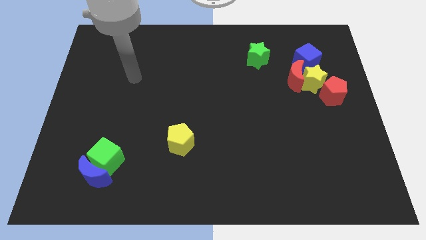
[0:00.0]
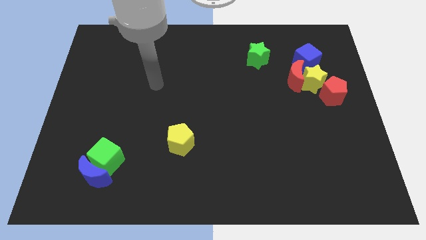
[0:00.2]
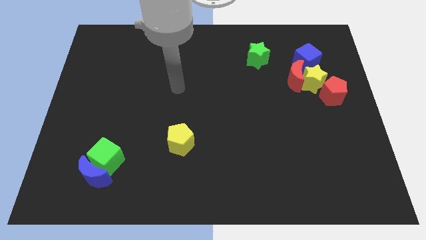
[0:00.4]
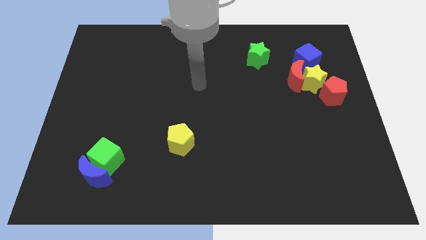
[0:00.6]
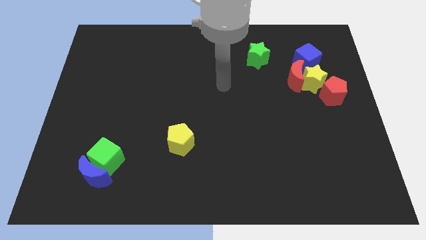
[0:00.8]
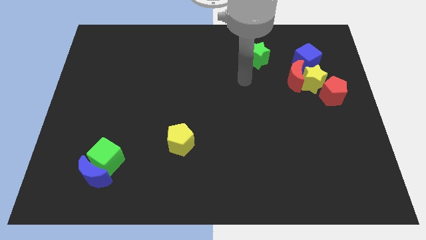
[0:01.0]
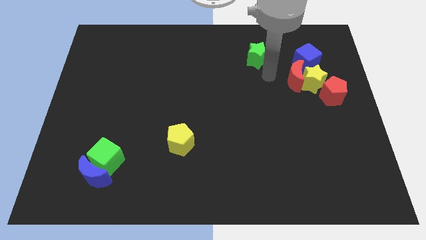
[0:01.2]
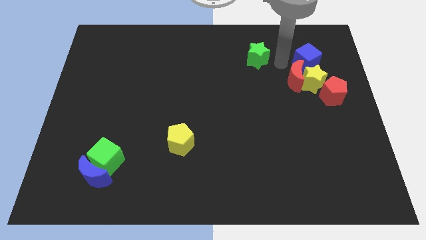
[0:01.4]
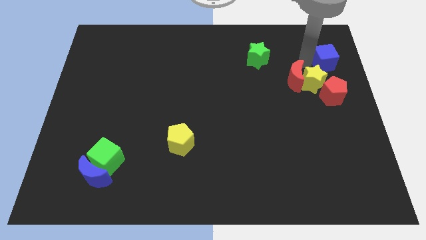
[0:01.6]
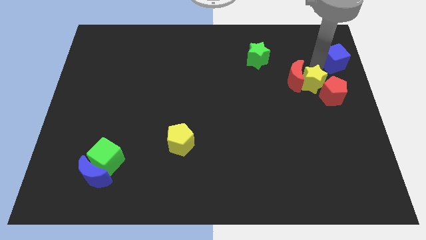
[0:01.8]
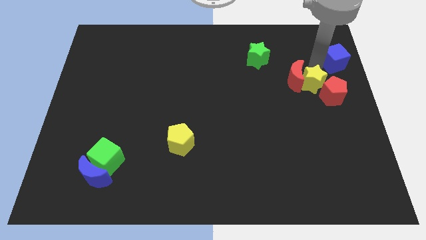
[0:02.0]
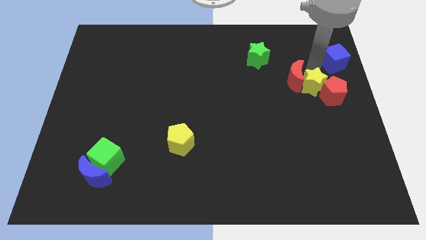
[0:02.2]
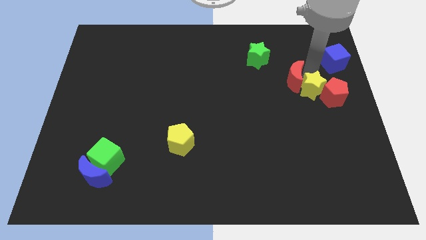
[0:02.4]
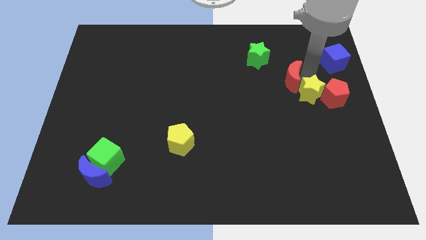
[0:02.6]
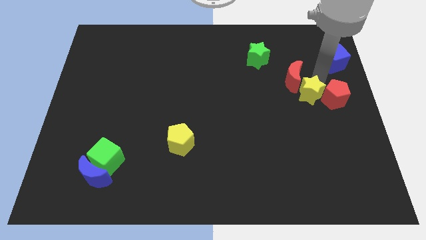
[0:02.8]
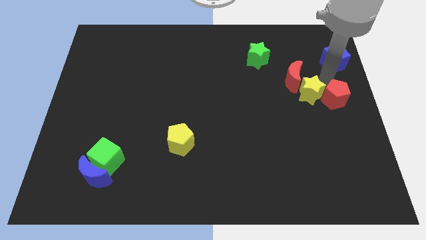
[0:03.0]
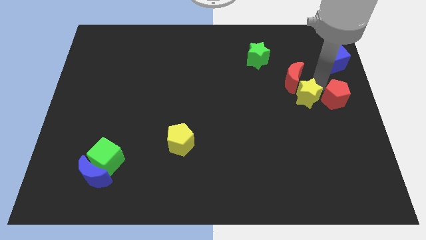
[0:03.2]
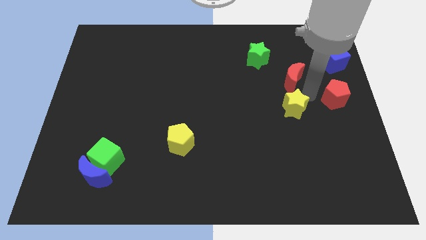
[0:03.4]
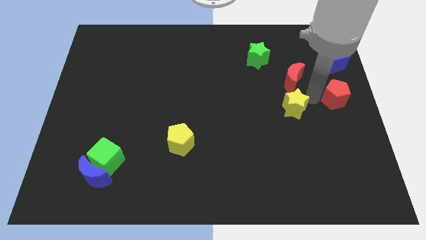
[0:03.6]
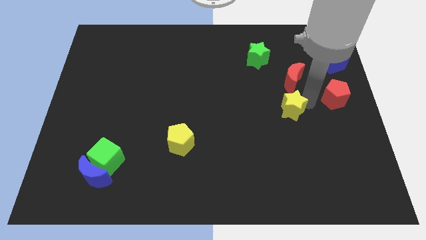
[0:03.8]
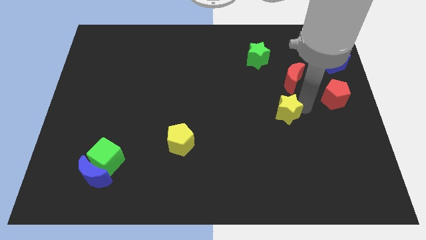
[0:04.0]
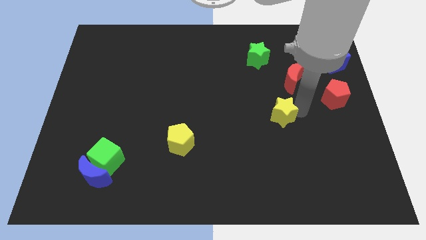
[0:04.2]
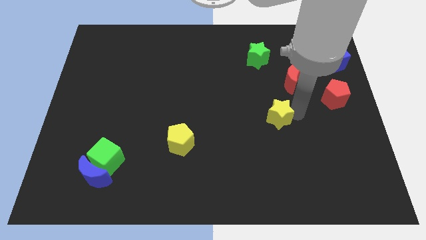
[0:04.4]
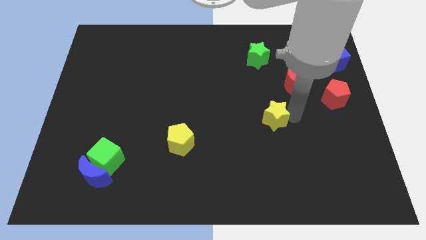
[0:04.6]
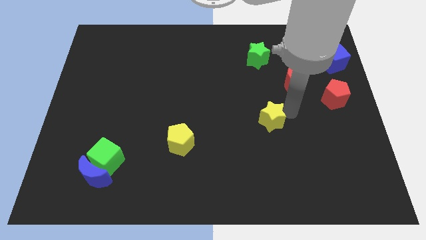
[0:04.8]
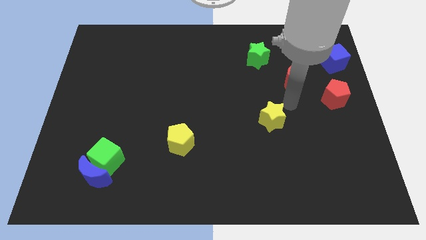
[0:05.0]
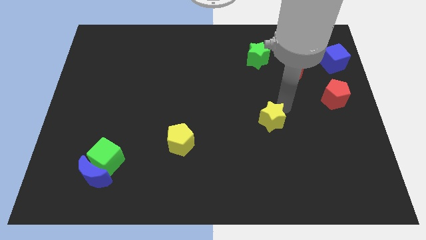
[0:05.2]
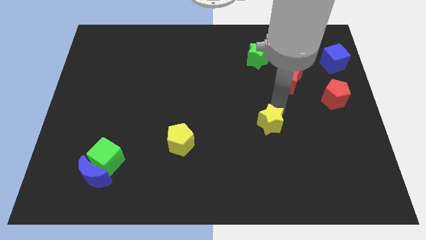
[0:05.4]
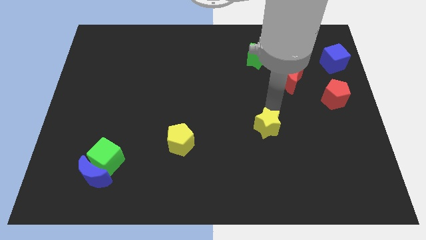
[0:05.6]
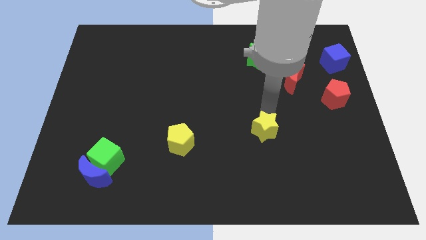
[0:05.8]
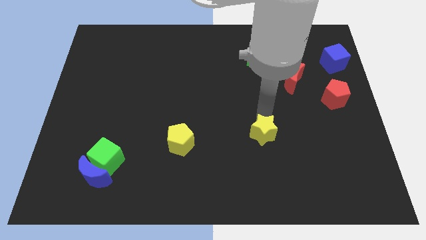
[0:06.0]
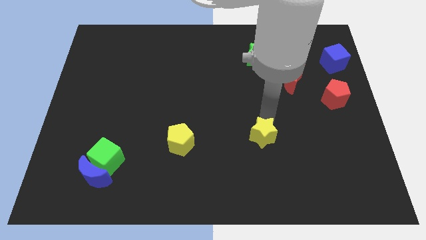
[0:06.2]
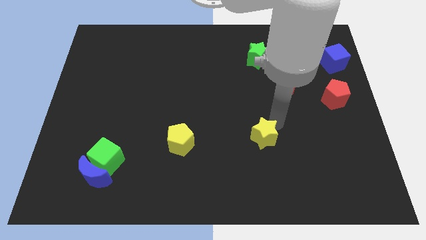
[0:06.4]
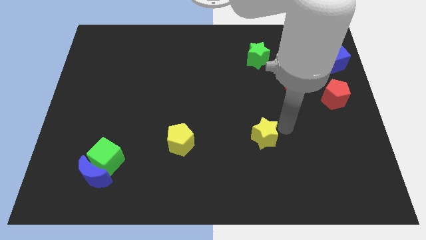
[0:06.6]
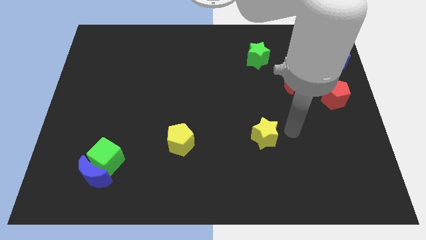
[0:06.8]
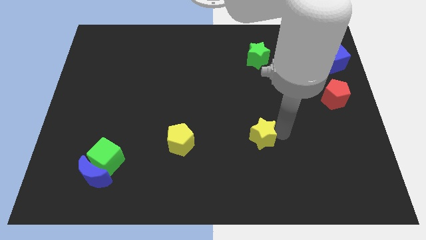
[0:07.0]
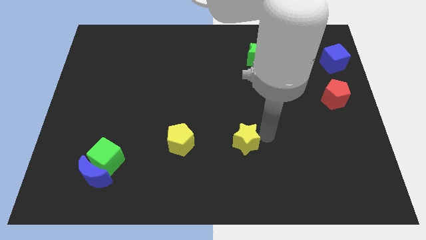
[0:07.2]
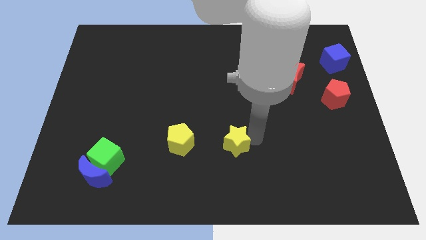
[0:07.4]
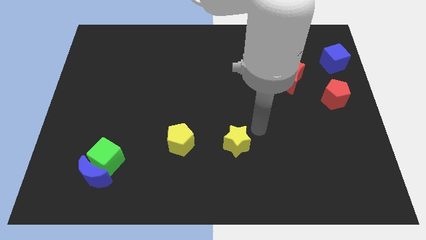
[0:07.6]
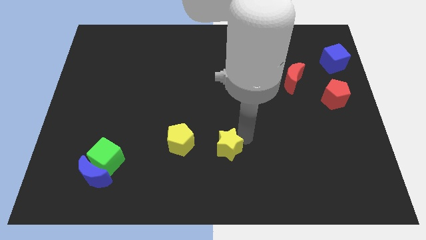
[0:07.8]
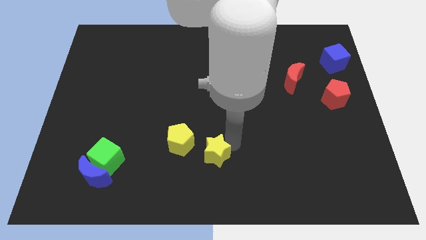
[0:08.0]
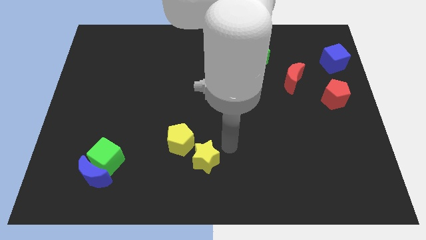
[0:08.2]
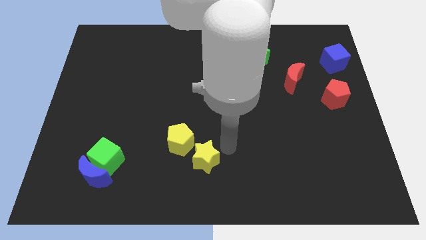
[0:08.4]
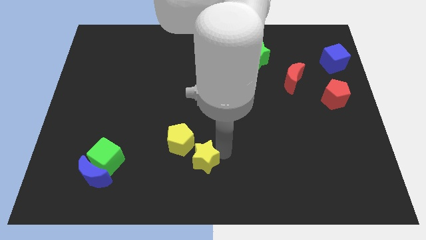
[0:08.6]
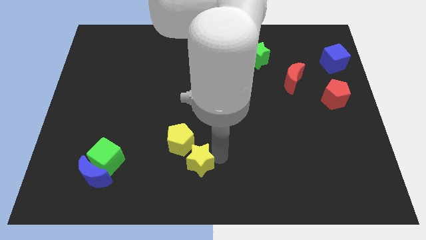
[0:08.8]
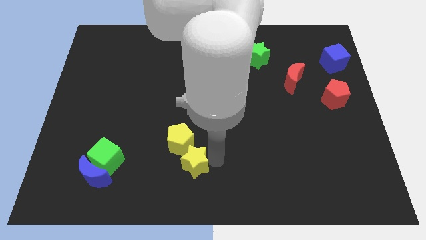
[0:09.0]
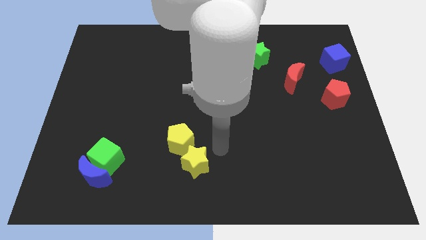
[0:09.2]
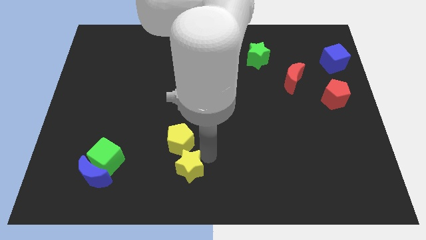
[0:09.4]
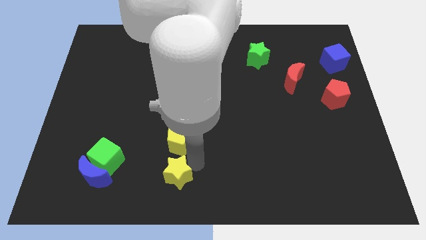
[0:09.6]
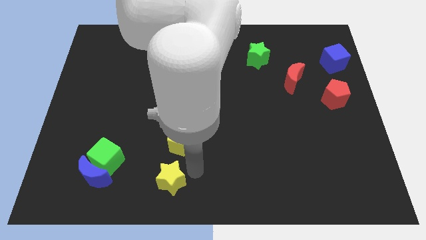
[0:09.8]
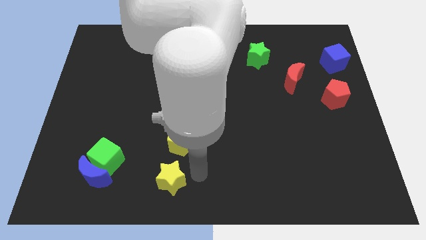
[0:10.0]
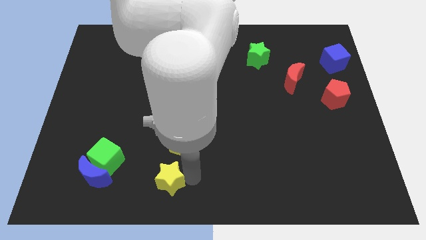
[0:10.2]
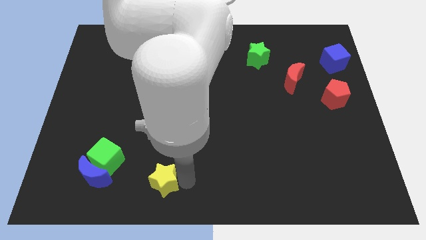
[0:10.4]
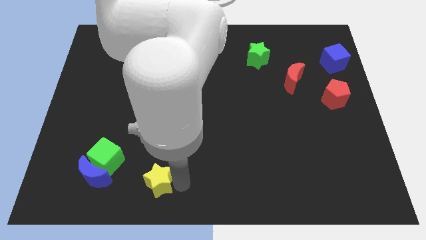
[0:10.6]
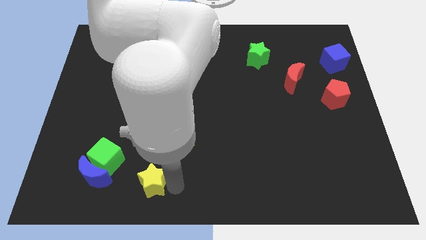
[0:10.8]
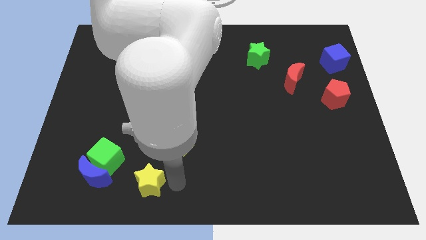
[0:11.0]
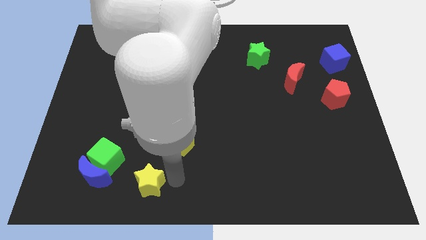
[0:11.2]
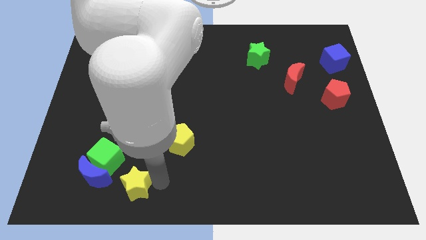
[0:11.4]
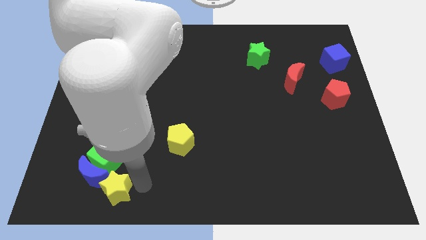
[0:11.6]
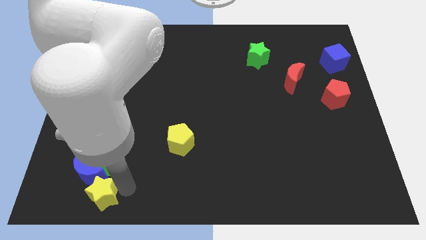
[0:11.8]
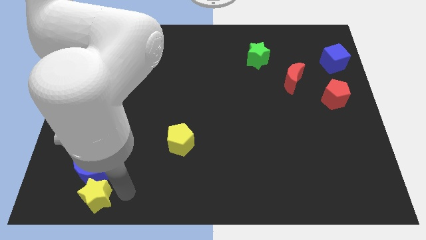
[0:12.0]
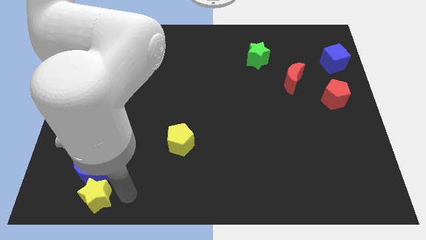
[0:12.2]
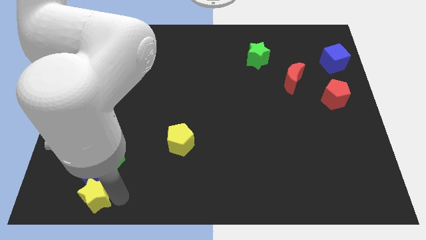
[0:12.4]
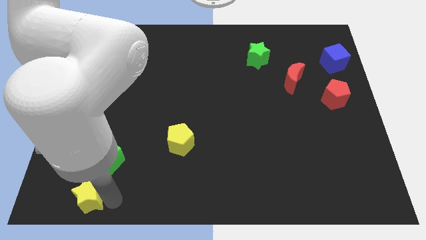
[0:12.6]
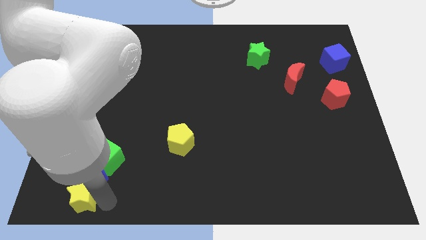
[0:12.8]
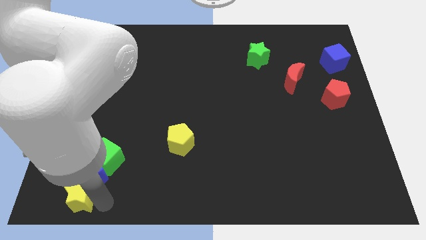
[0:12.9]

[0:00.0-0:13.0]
push the yellow star to the lower left corner
